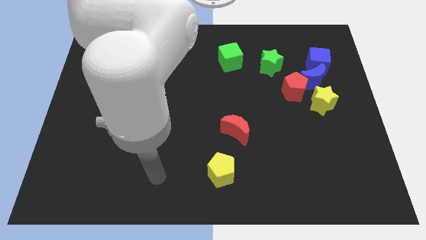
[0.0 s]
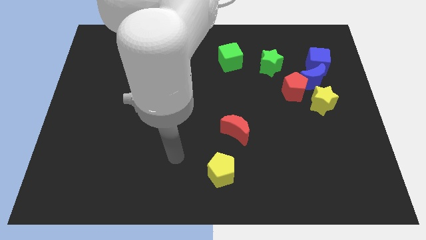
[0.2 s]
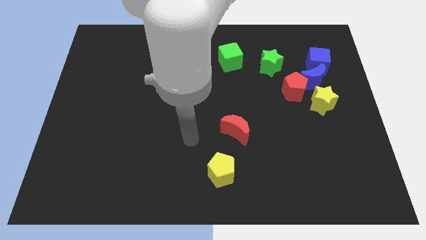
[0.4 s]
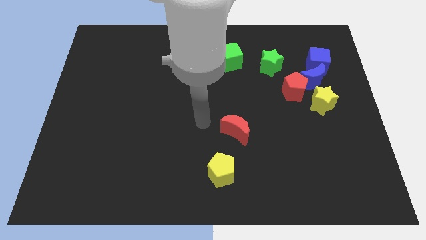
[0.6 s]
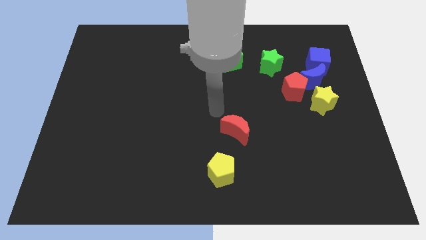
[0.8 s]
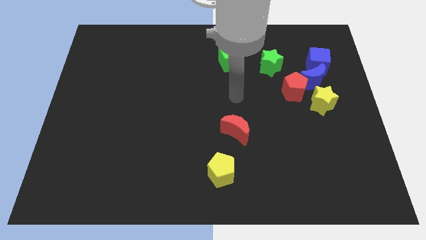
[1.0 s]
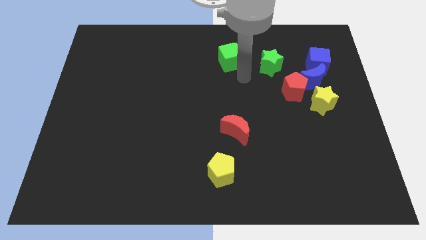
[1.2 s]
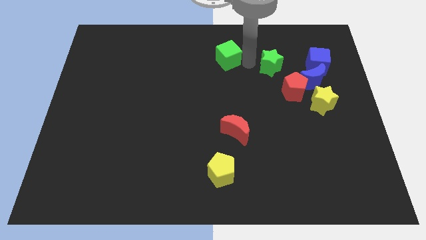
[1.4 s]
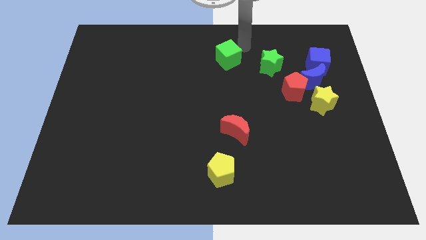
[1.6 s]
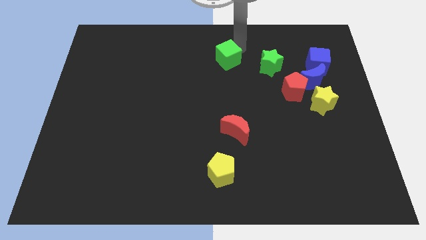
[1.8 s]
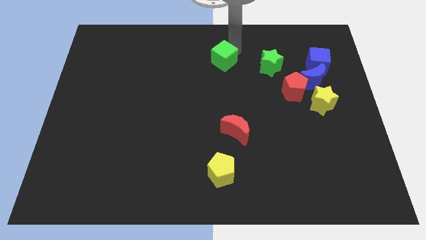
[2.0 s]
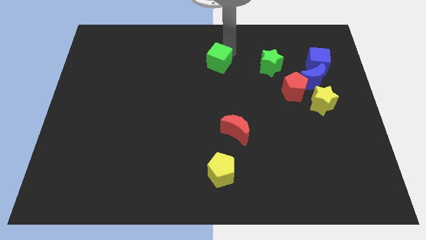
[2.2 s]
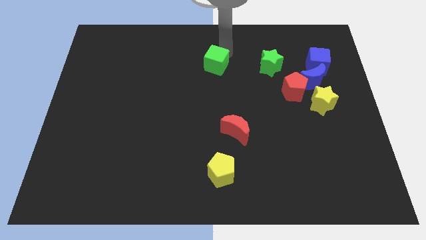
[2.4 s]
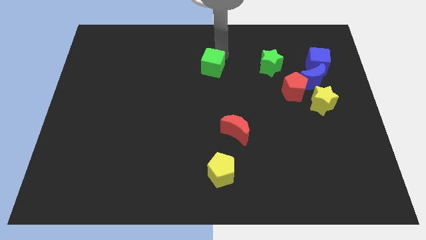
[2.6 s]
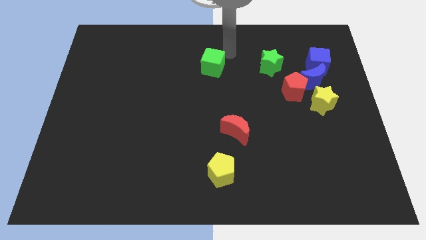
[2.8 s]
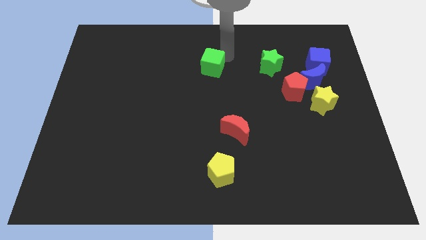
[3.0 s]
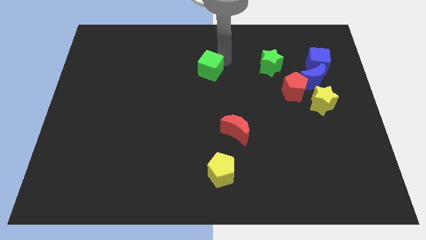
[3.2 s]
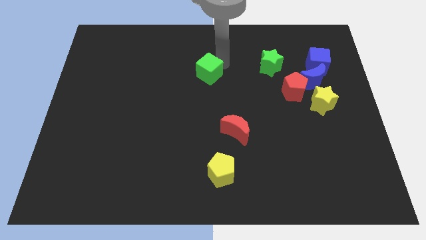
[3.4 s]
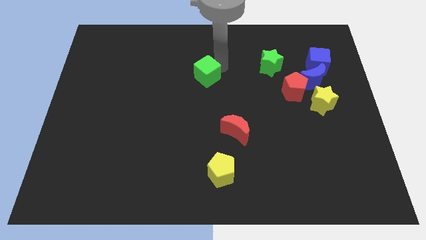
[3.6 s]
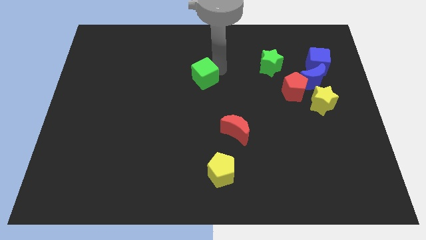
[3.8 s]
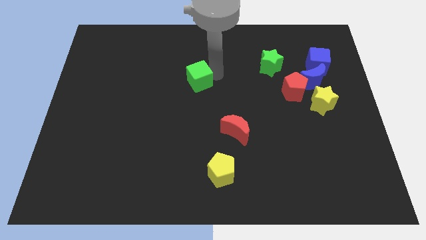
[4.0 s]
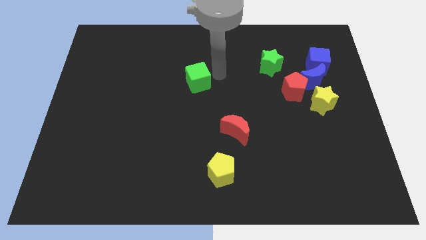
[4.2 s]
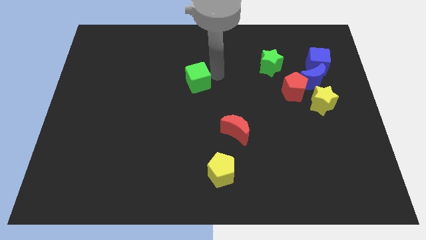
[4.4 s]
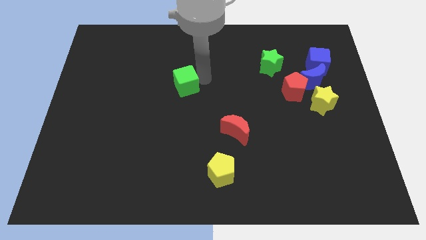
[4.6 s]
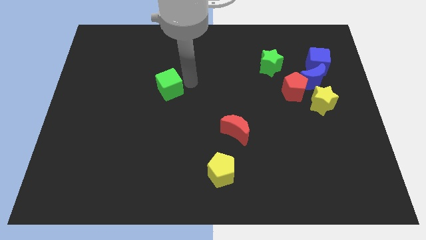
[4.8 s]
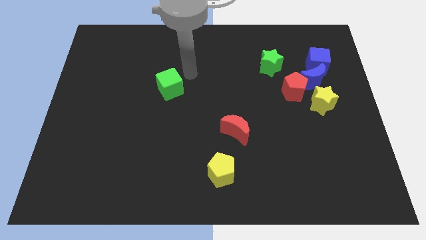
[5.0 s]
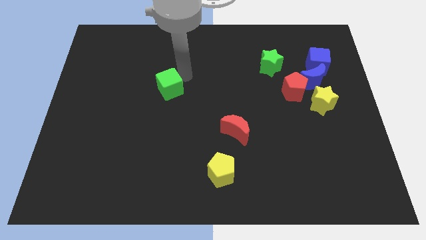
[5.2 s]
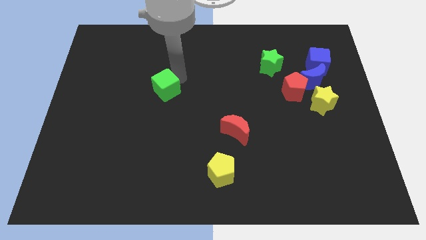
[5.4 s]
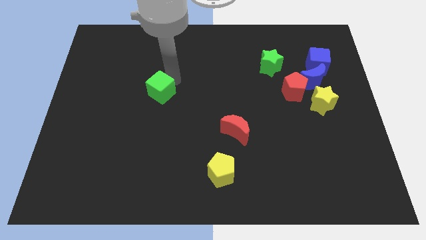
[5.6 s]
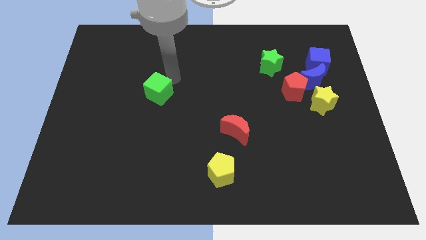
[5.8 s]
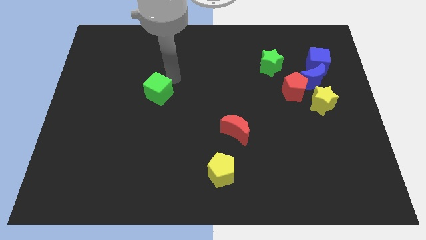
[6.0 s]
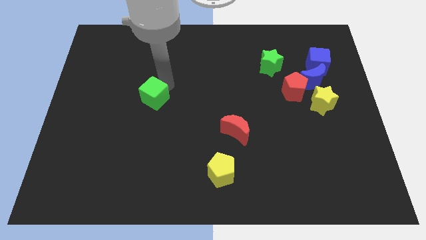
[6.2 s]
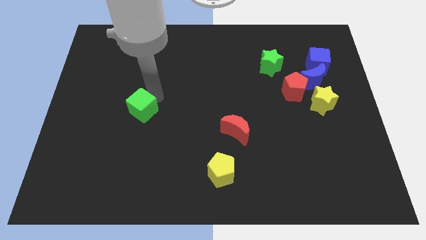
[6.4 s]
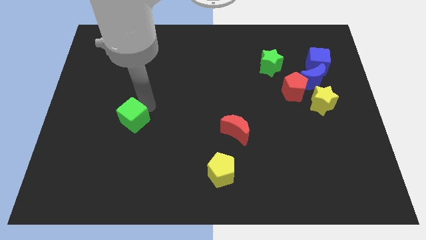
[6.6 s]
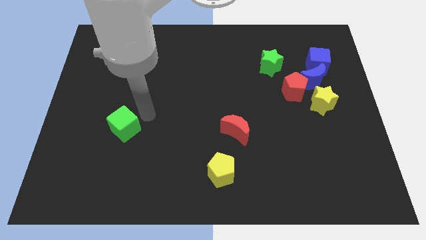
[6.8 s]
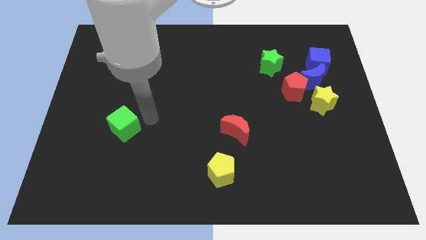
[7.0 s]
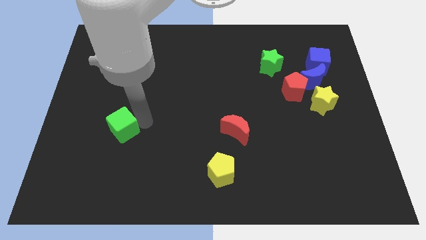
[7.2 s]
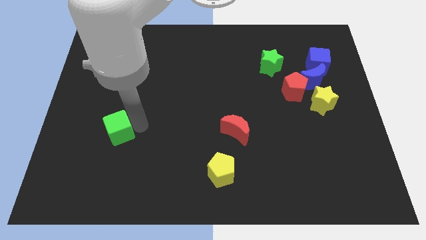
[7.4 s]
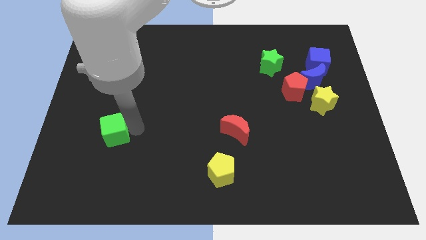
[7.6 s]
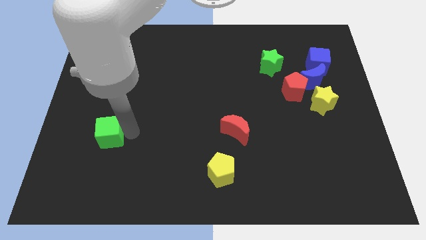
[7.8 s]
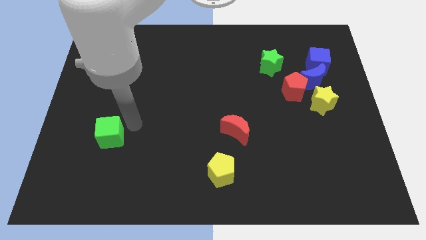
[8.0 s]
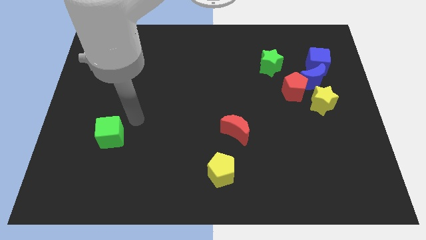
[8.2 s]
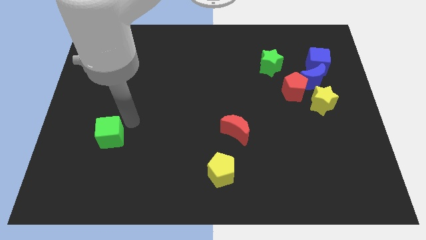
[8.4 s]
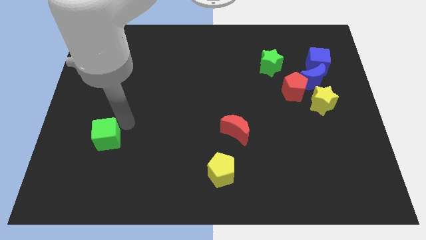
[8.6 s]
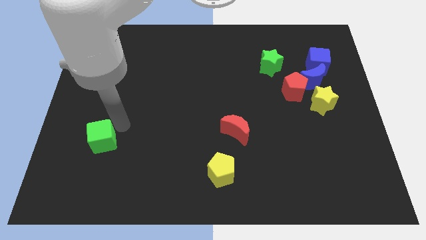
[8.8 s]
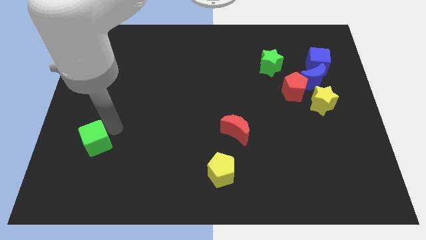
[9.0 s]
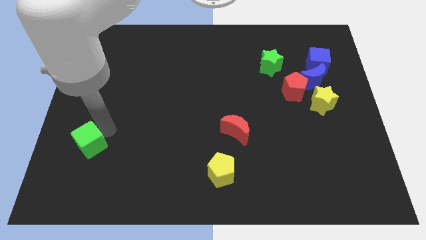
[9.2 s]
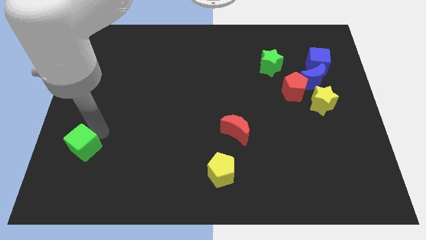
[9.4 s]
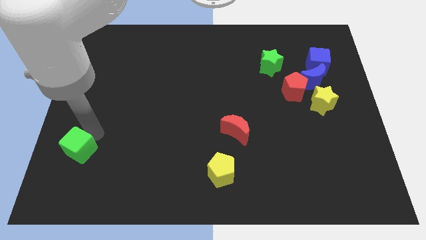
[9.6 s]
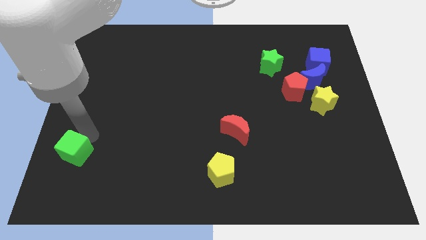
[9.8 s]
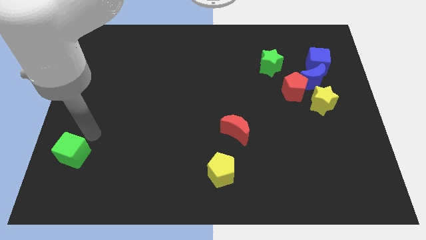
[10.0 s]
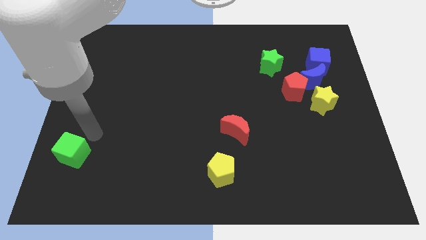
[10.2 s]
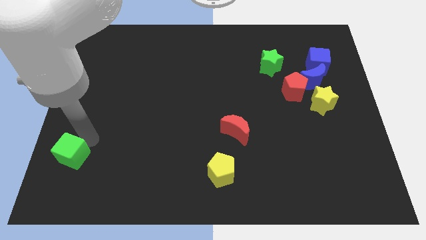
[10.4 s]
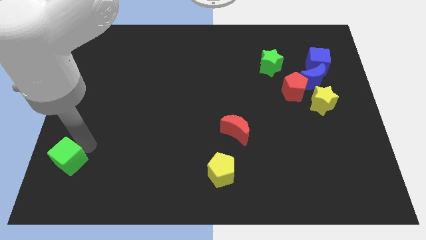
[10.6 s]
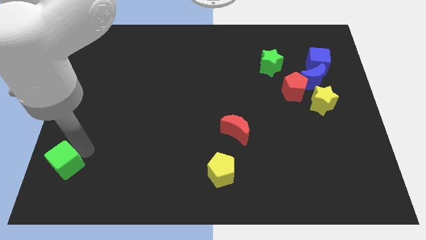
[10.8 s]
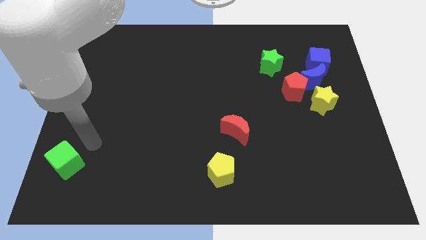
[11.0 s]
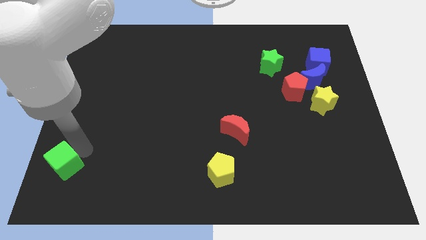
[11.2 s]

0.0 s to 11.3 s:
move the green cube to the bottom left corner
